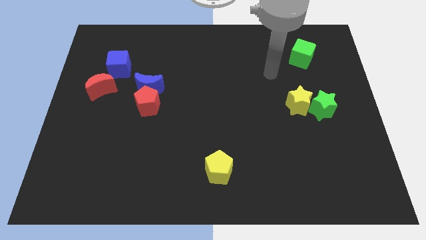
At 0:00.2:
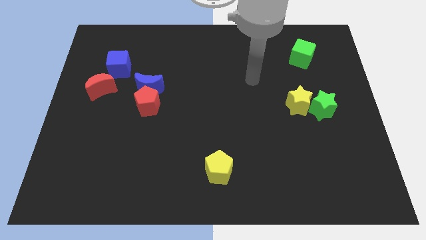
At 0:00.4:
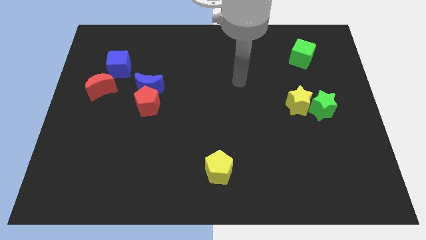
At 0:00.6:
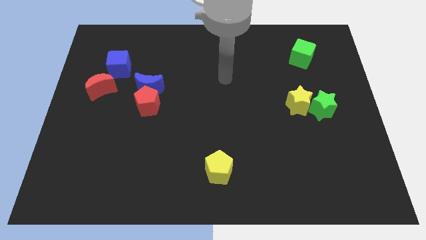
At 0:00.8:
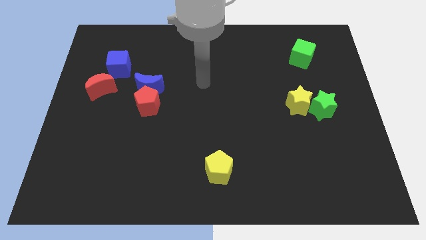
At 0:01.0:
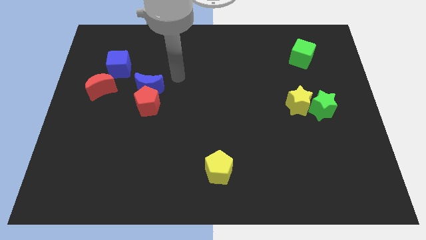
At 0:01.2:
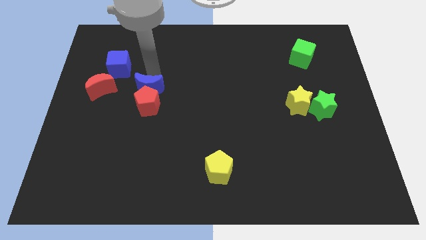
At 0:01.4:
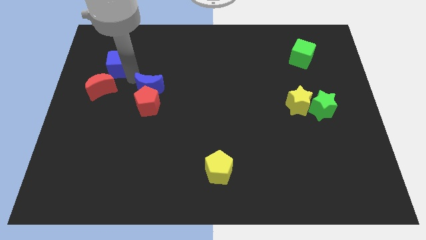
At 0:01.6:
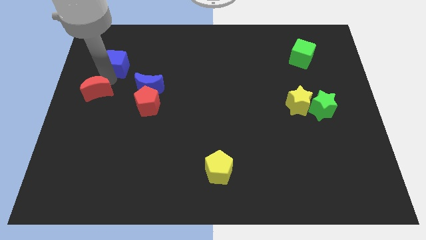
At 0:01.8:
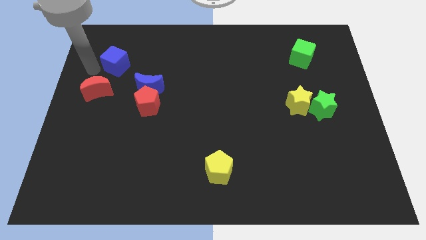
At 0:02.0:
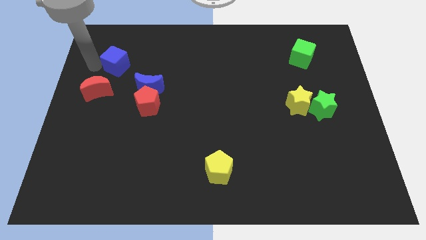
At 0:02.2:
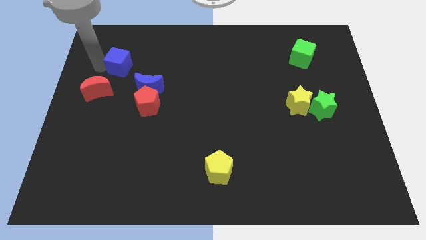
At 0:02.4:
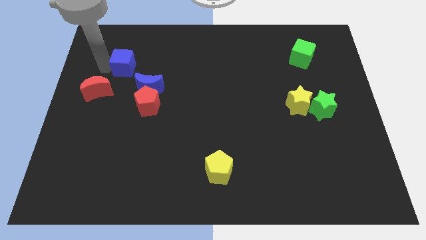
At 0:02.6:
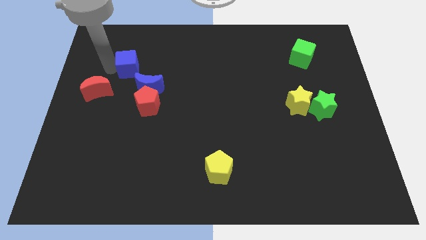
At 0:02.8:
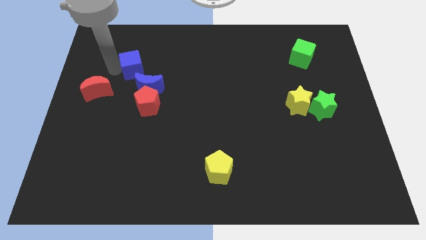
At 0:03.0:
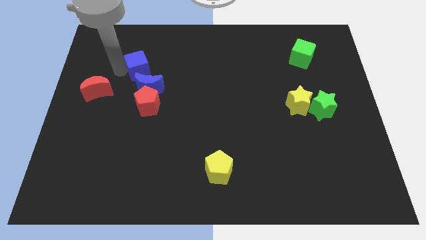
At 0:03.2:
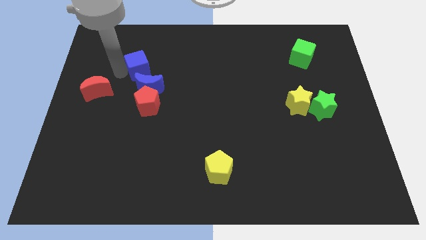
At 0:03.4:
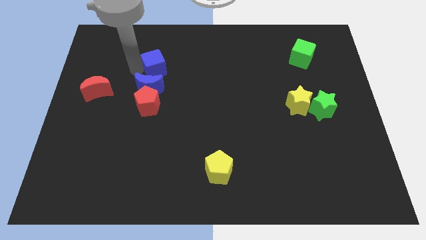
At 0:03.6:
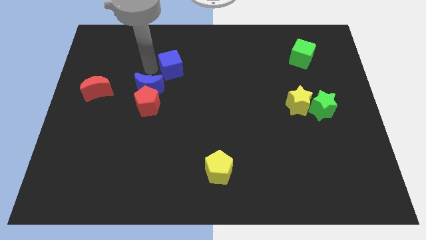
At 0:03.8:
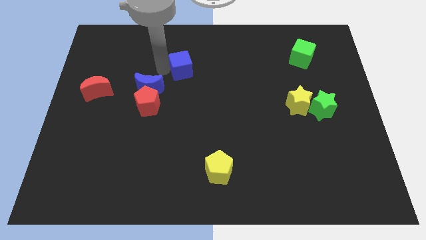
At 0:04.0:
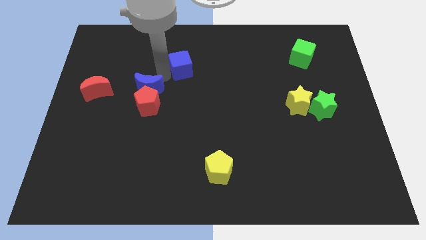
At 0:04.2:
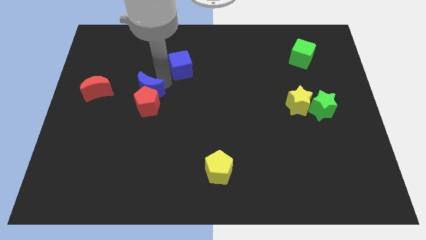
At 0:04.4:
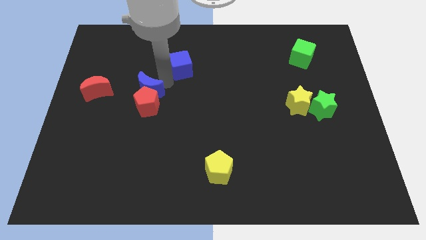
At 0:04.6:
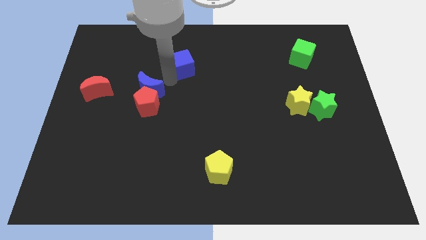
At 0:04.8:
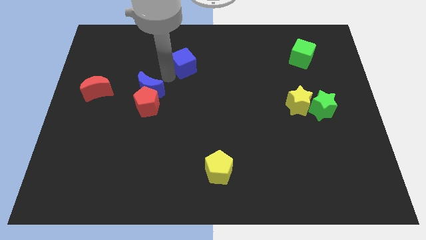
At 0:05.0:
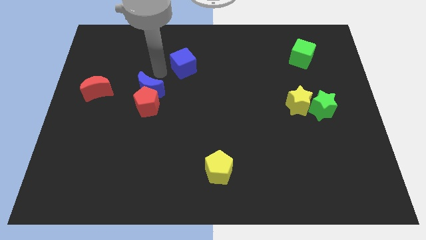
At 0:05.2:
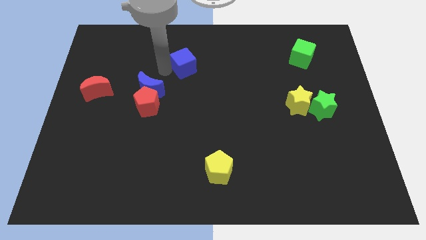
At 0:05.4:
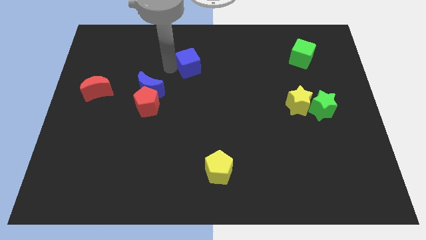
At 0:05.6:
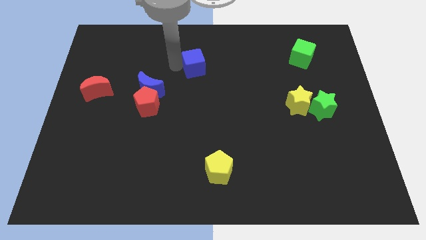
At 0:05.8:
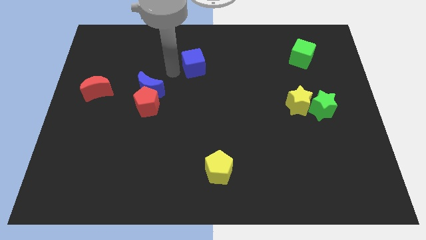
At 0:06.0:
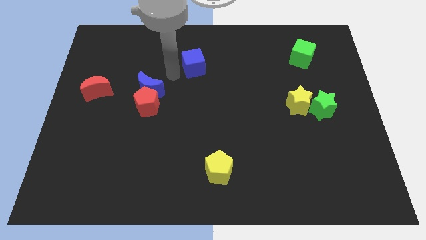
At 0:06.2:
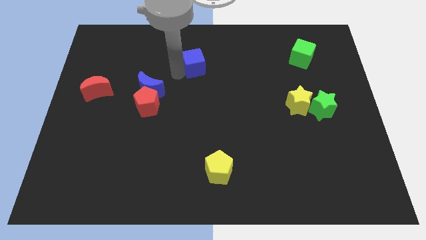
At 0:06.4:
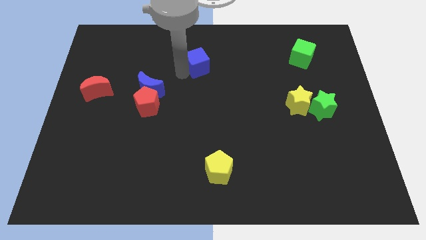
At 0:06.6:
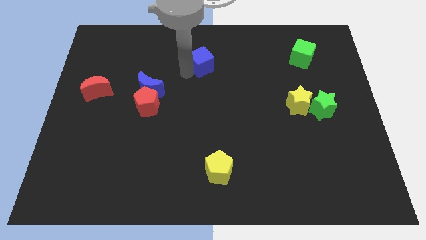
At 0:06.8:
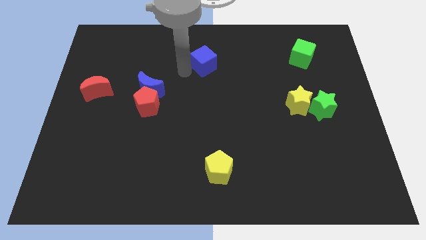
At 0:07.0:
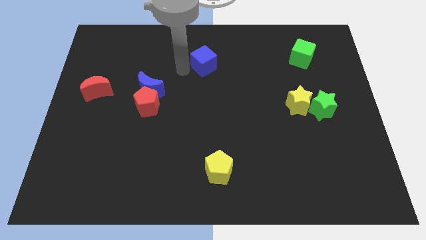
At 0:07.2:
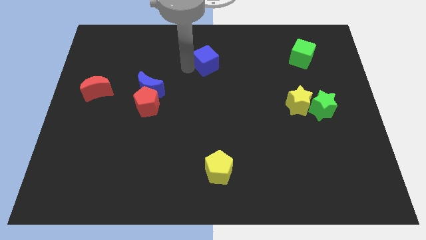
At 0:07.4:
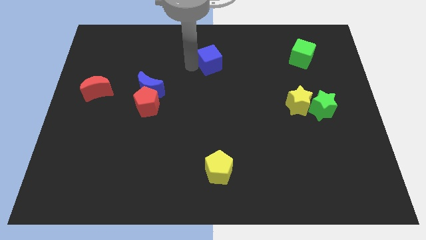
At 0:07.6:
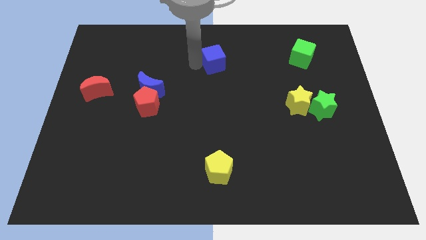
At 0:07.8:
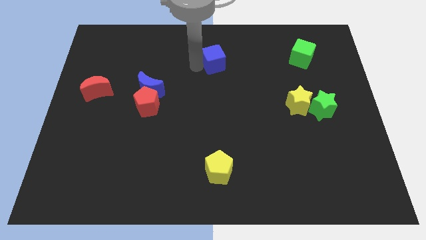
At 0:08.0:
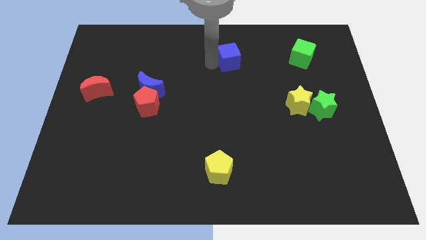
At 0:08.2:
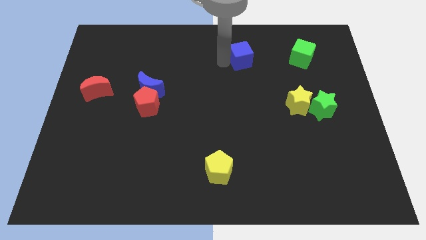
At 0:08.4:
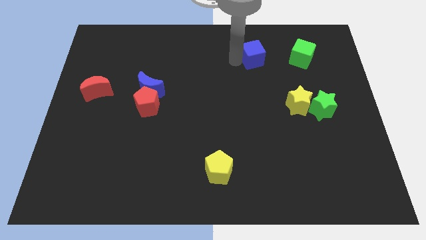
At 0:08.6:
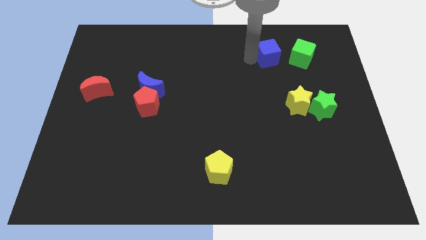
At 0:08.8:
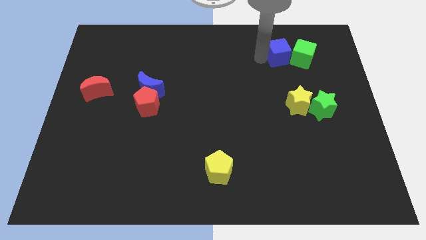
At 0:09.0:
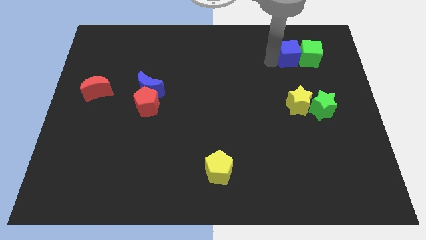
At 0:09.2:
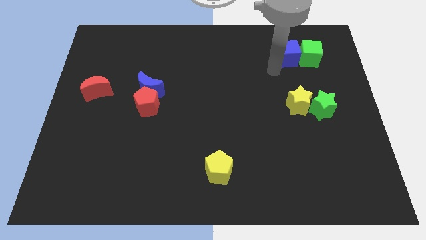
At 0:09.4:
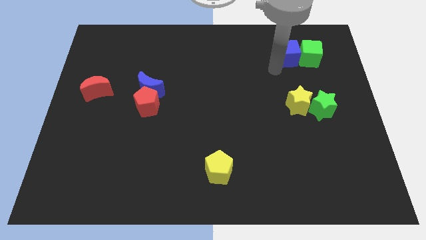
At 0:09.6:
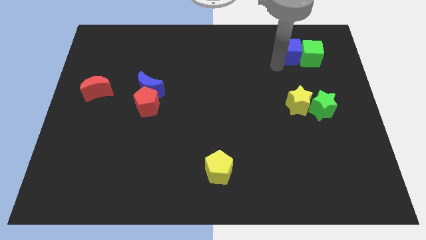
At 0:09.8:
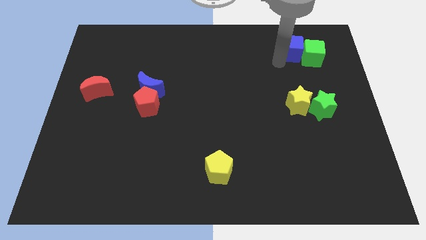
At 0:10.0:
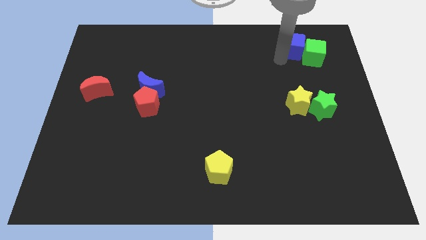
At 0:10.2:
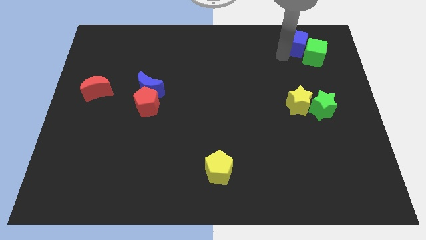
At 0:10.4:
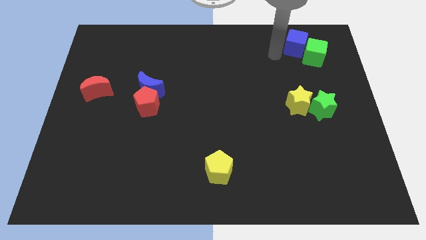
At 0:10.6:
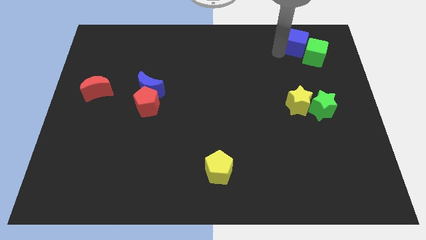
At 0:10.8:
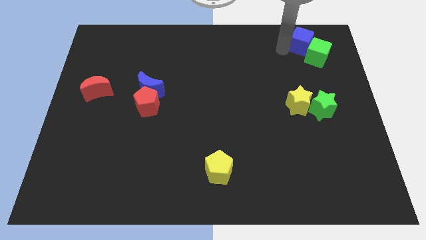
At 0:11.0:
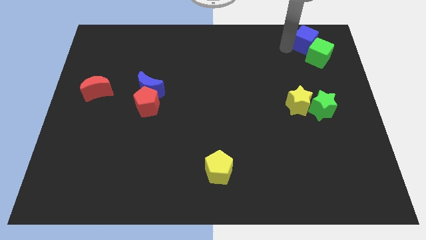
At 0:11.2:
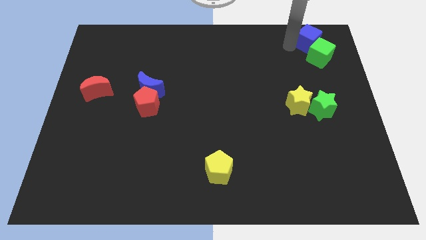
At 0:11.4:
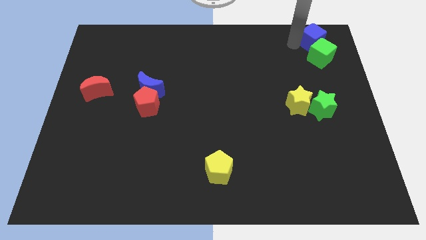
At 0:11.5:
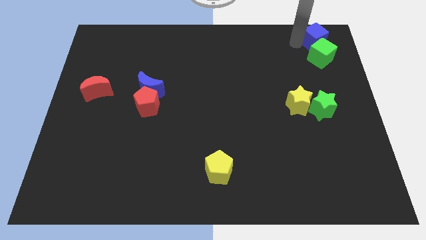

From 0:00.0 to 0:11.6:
slide the blue cube to the top right
